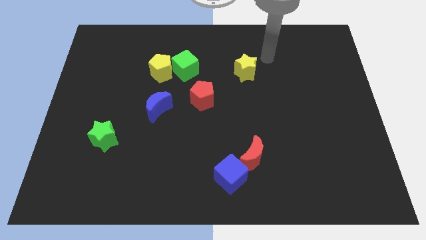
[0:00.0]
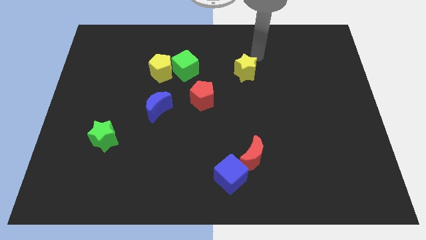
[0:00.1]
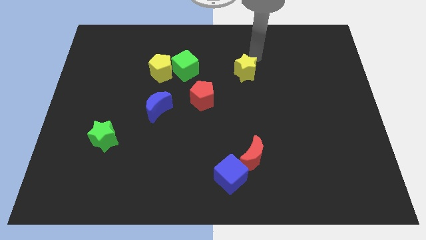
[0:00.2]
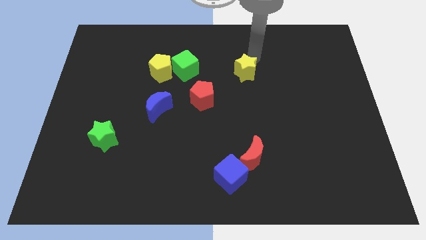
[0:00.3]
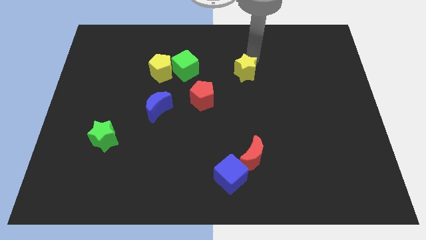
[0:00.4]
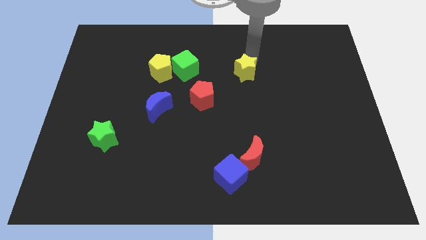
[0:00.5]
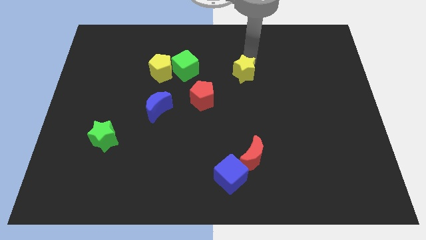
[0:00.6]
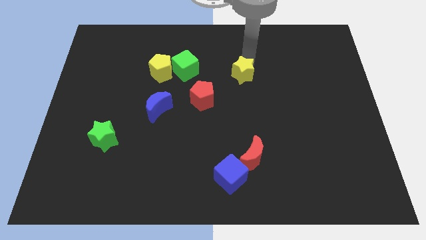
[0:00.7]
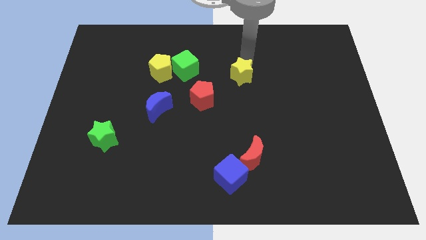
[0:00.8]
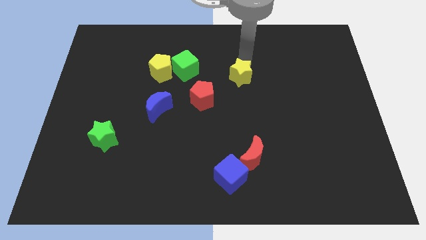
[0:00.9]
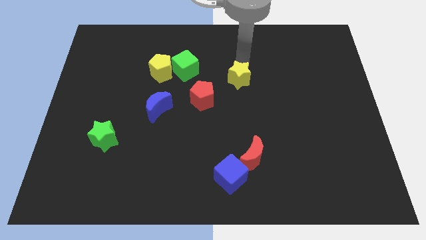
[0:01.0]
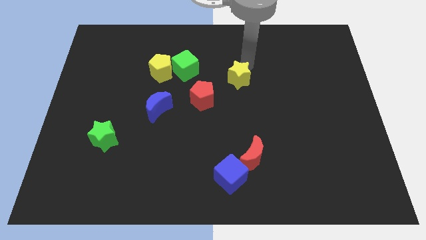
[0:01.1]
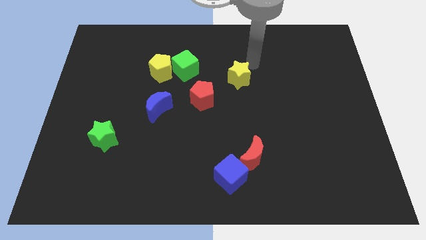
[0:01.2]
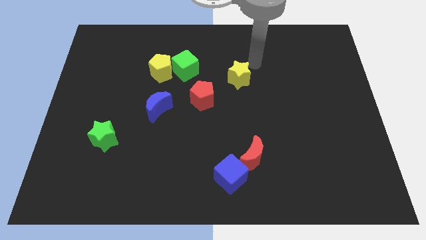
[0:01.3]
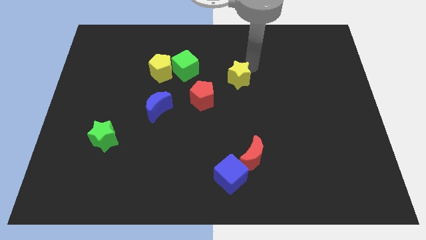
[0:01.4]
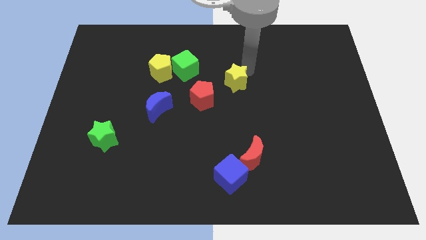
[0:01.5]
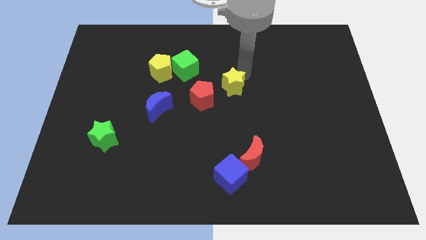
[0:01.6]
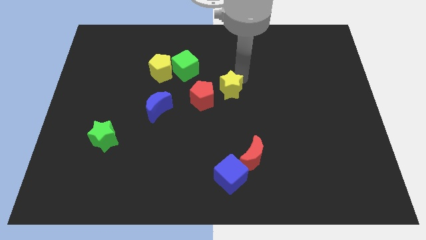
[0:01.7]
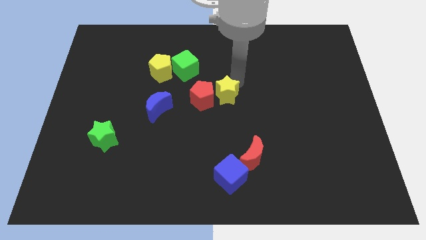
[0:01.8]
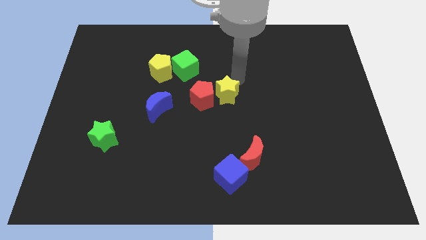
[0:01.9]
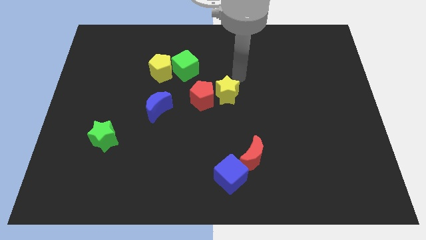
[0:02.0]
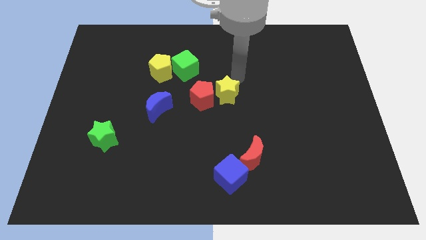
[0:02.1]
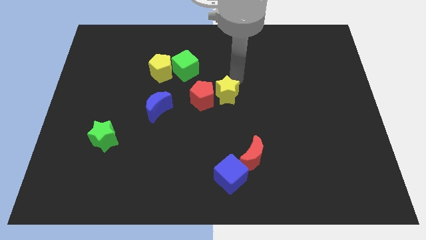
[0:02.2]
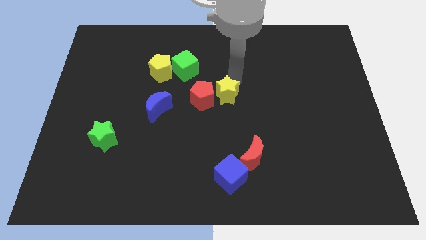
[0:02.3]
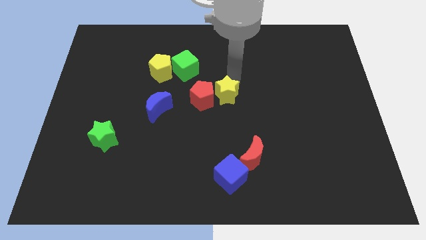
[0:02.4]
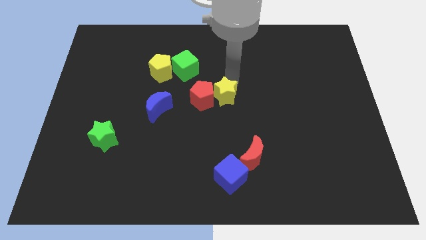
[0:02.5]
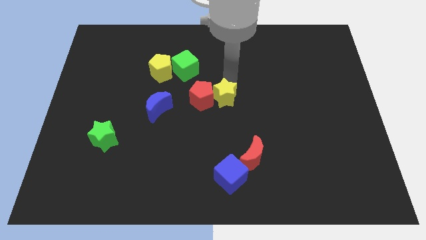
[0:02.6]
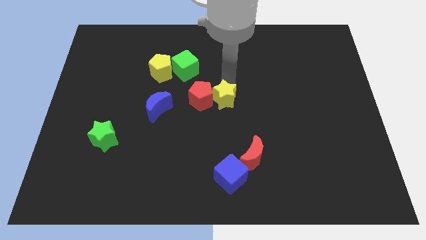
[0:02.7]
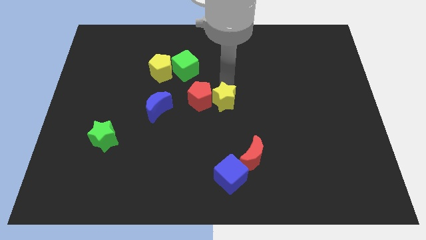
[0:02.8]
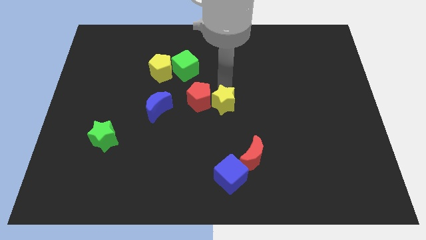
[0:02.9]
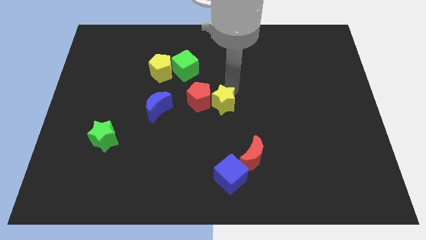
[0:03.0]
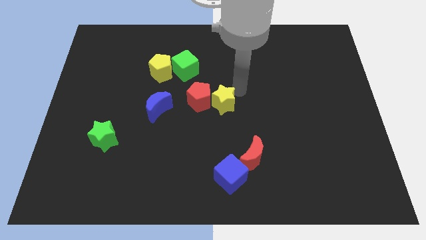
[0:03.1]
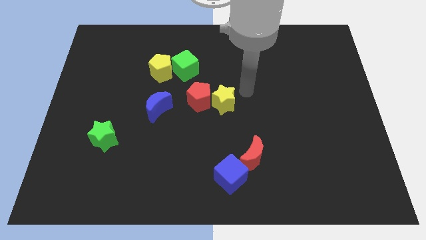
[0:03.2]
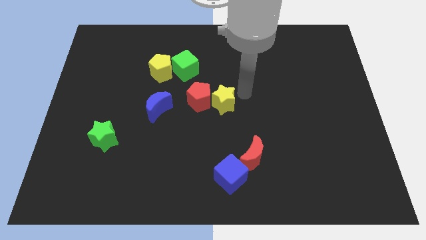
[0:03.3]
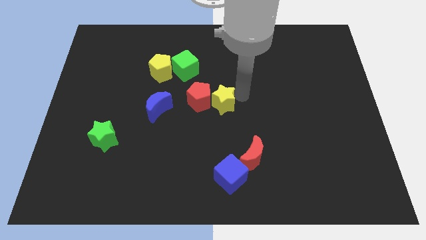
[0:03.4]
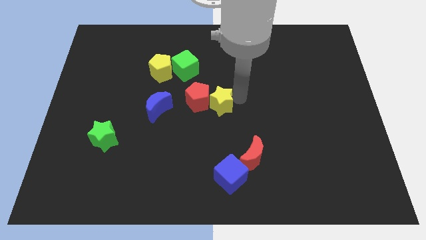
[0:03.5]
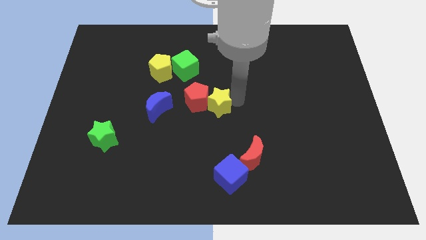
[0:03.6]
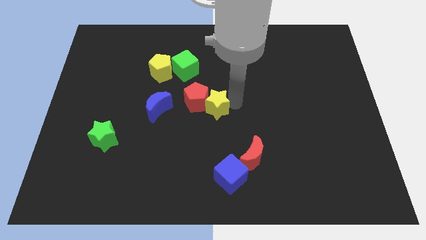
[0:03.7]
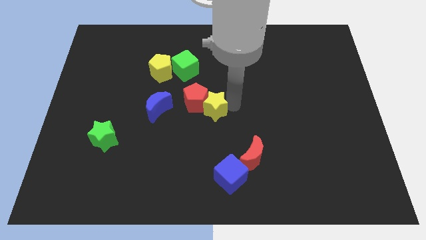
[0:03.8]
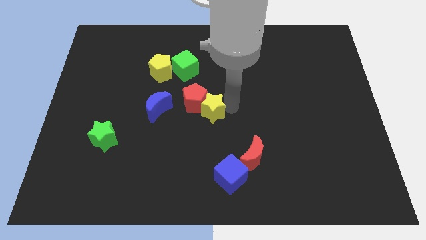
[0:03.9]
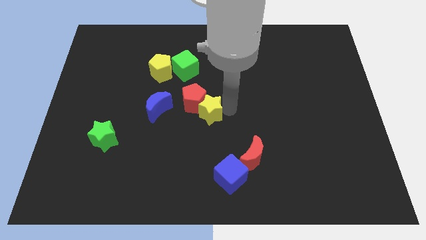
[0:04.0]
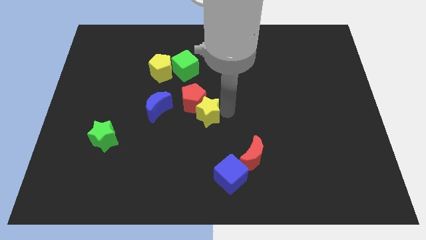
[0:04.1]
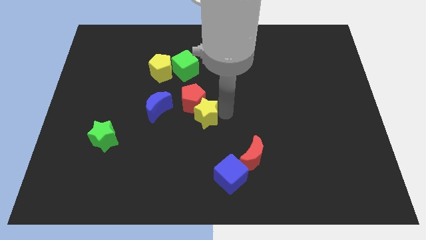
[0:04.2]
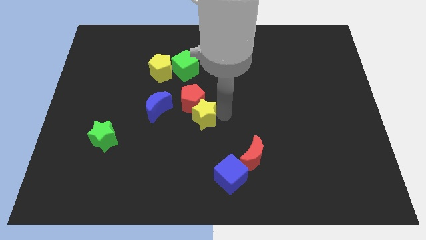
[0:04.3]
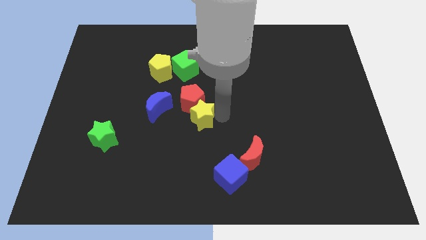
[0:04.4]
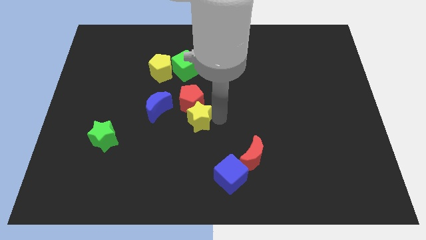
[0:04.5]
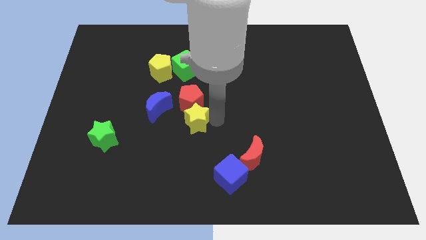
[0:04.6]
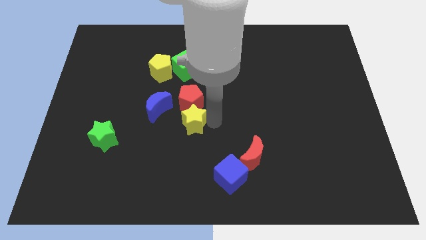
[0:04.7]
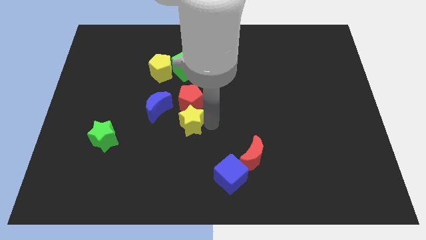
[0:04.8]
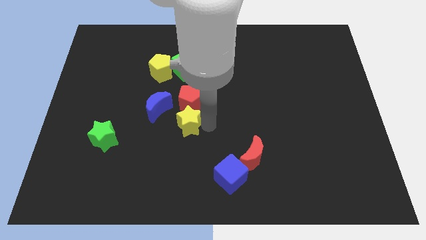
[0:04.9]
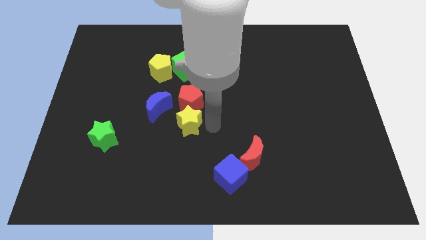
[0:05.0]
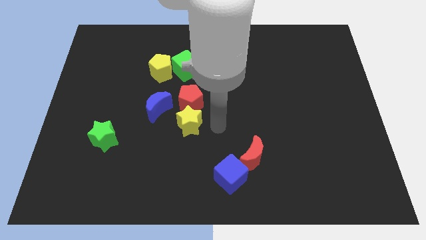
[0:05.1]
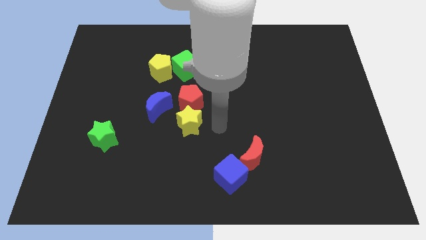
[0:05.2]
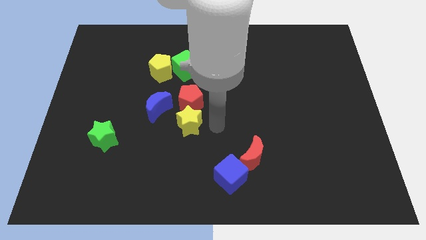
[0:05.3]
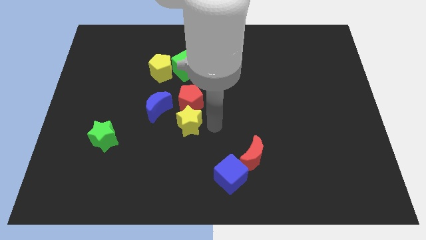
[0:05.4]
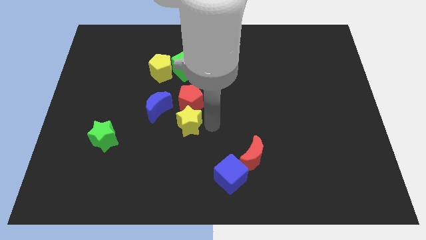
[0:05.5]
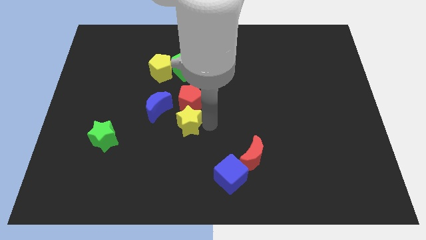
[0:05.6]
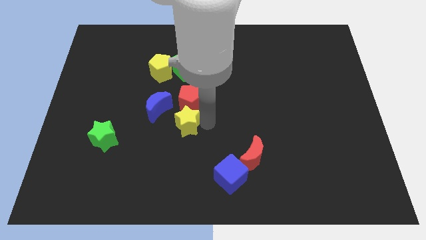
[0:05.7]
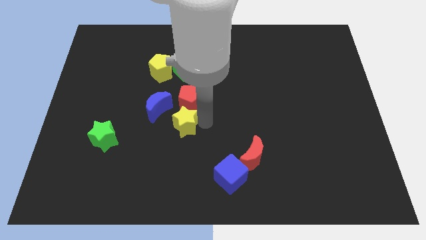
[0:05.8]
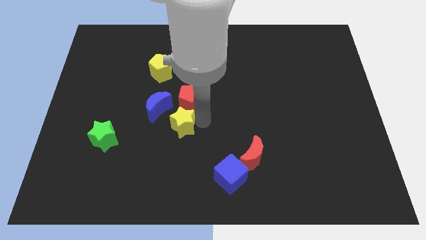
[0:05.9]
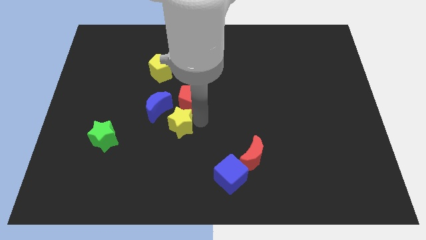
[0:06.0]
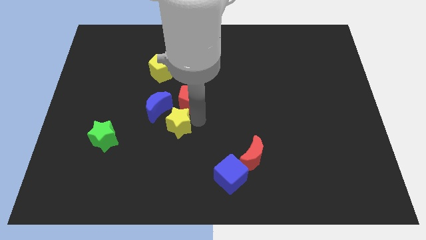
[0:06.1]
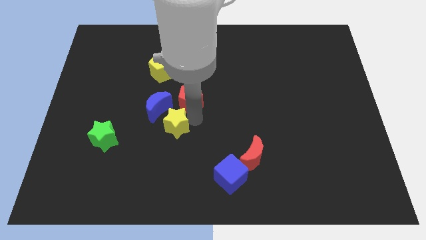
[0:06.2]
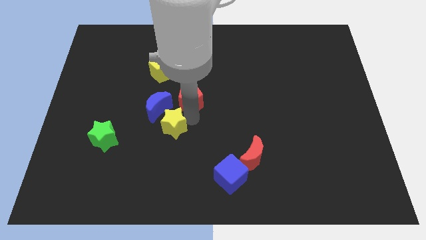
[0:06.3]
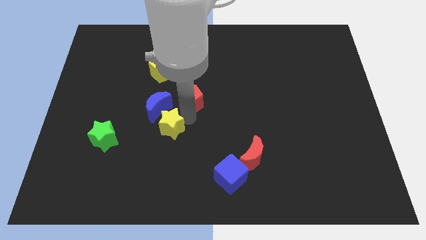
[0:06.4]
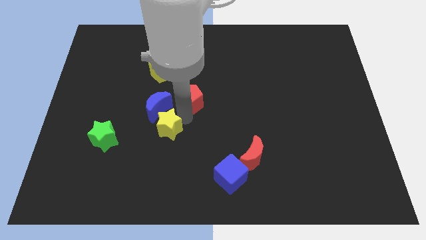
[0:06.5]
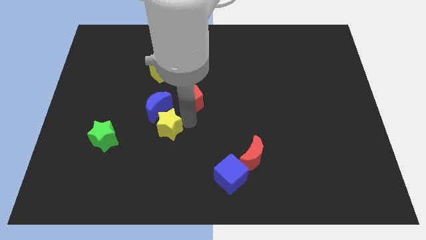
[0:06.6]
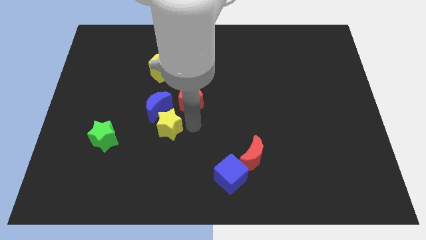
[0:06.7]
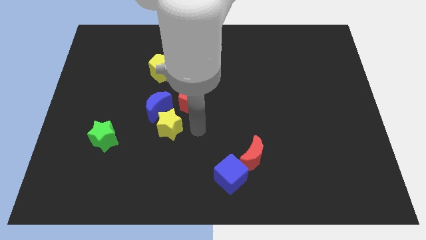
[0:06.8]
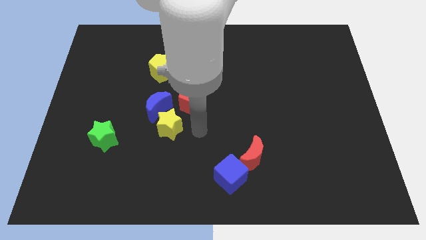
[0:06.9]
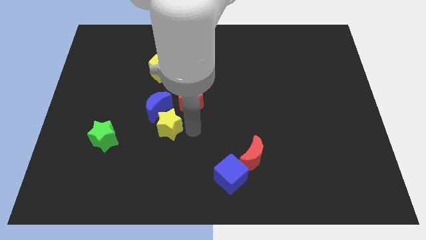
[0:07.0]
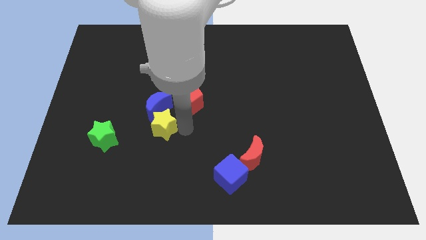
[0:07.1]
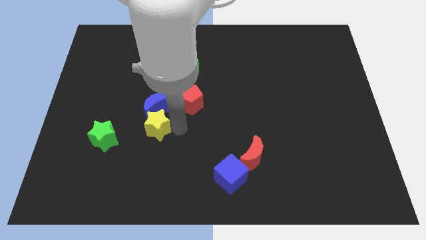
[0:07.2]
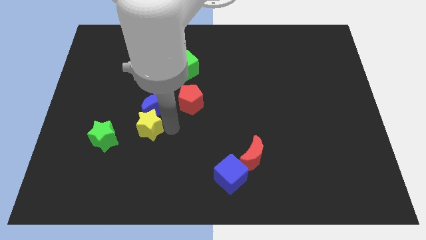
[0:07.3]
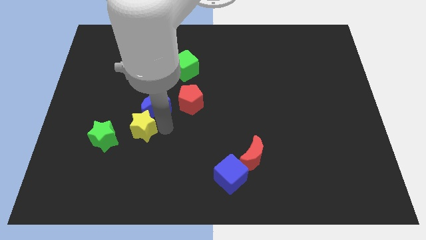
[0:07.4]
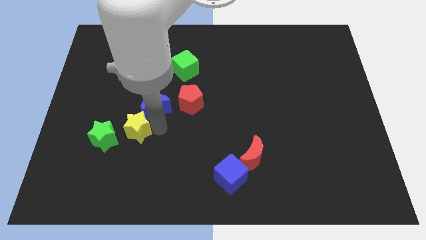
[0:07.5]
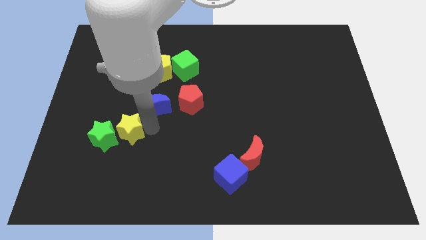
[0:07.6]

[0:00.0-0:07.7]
slide the yellow star to the green star
